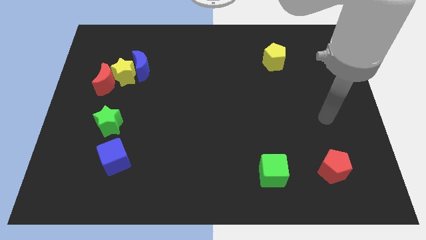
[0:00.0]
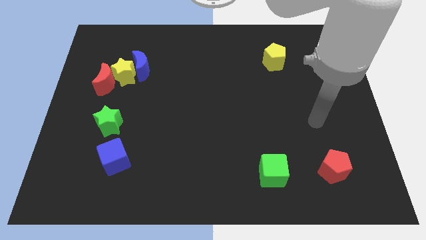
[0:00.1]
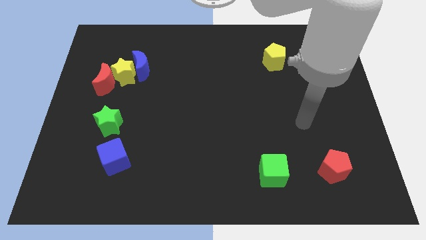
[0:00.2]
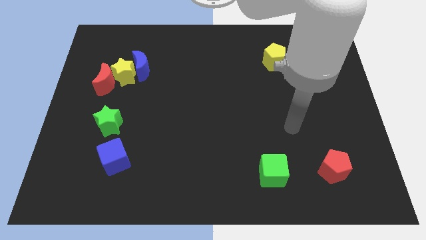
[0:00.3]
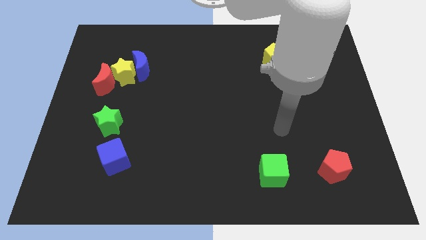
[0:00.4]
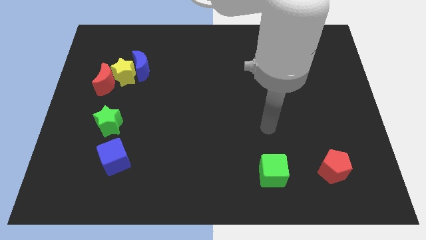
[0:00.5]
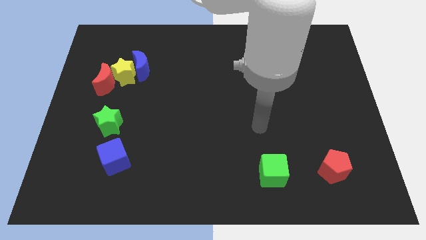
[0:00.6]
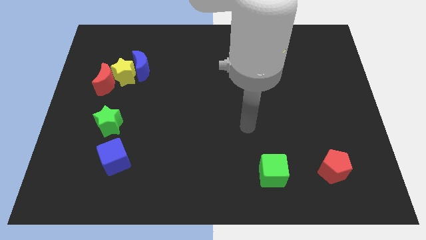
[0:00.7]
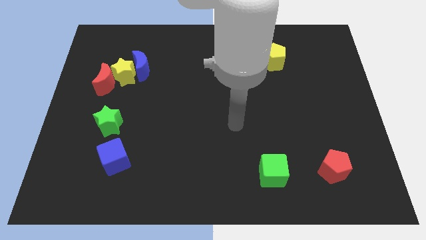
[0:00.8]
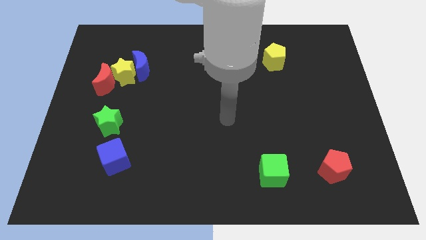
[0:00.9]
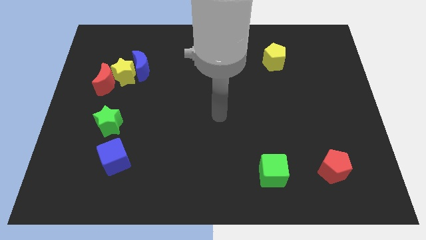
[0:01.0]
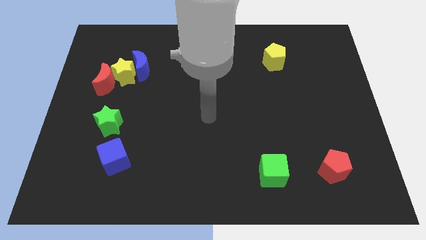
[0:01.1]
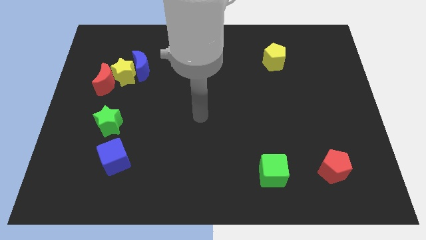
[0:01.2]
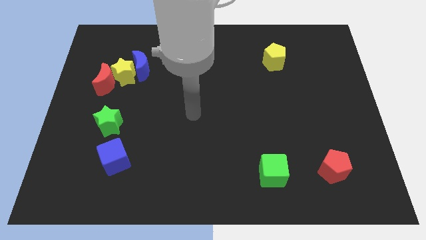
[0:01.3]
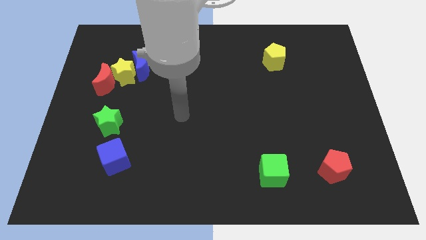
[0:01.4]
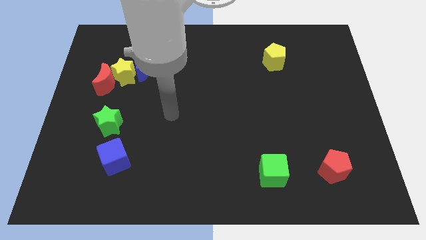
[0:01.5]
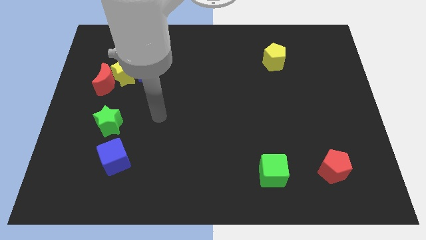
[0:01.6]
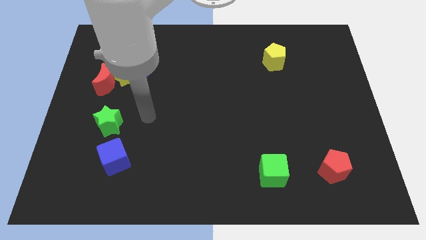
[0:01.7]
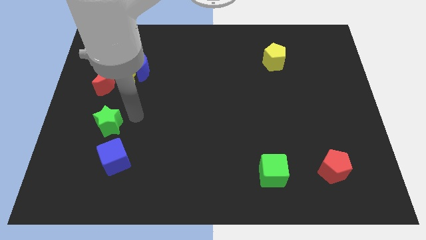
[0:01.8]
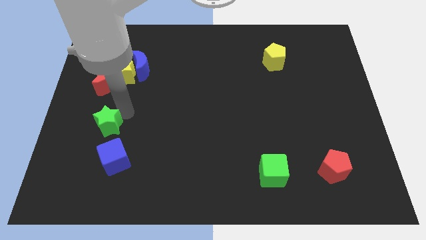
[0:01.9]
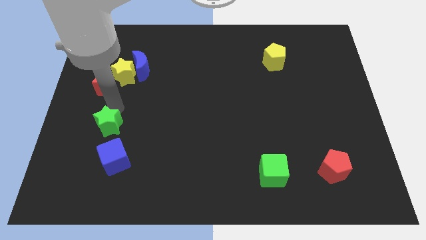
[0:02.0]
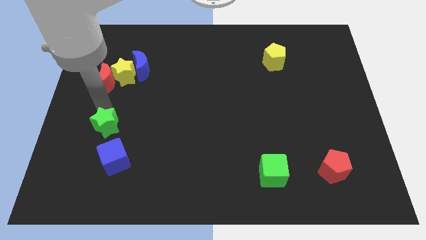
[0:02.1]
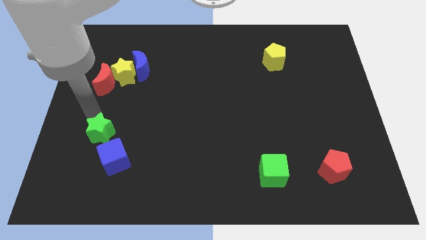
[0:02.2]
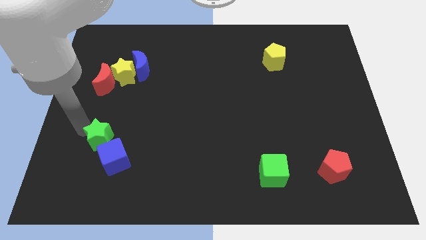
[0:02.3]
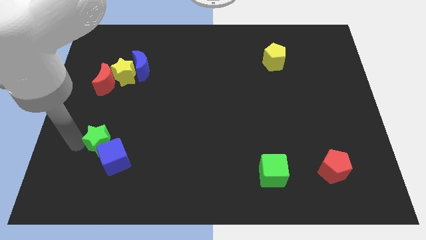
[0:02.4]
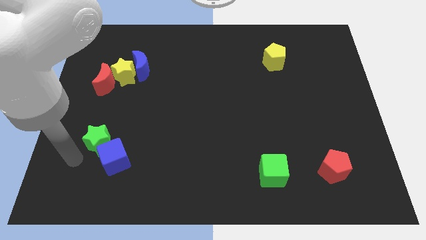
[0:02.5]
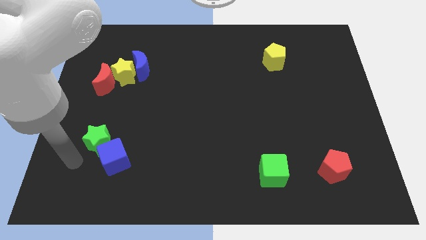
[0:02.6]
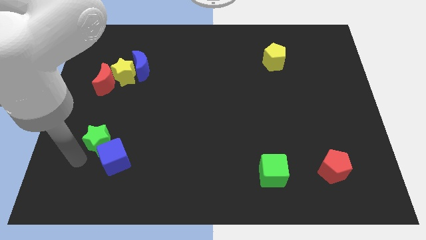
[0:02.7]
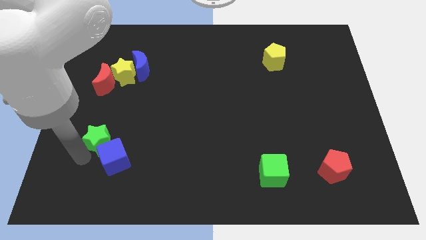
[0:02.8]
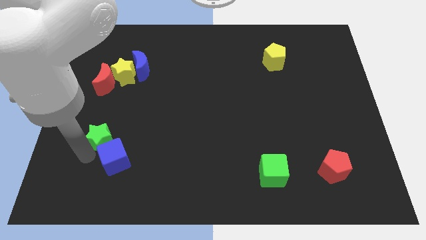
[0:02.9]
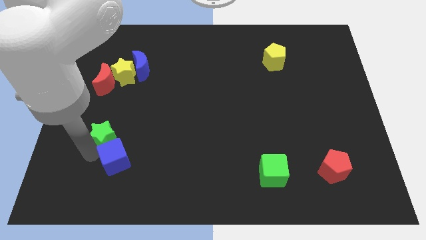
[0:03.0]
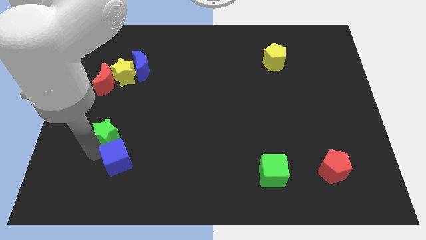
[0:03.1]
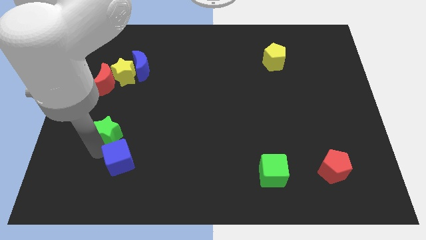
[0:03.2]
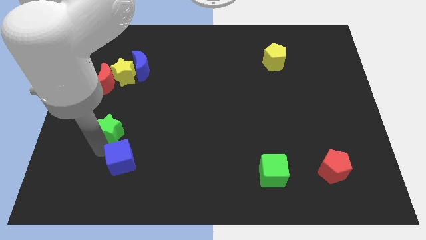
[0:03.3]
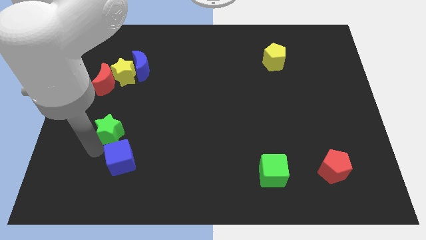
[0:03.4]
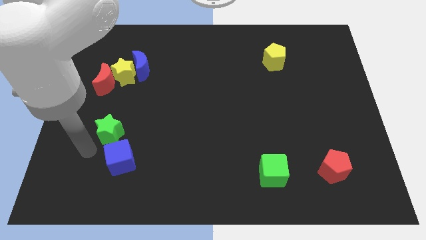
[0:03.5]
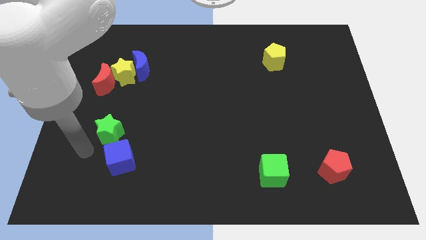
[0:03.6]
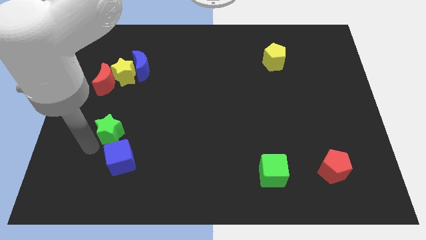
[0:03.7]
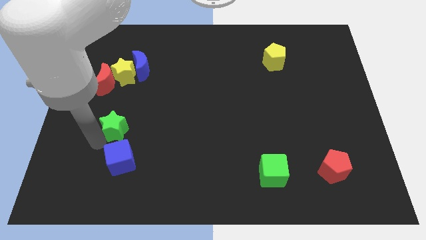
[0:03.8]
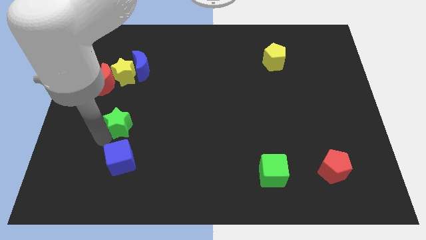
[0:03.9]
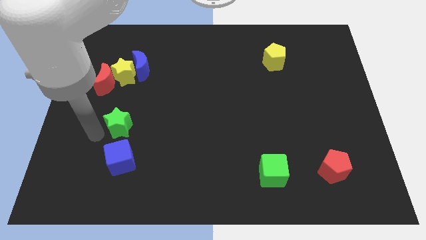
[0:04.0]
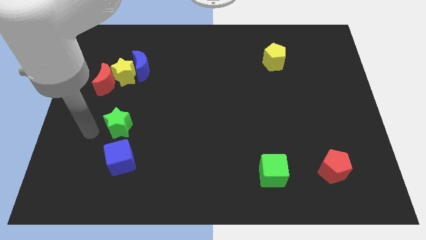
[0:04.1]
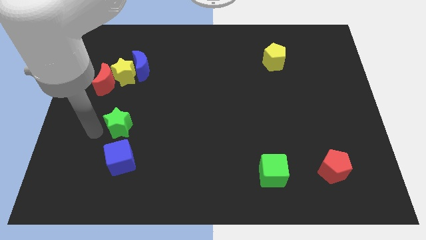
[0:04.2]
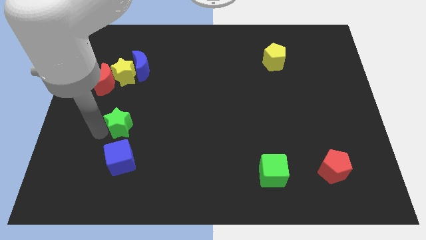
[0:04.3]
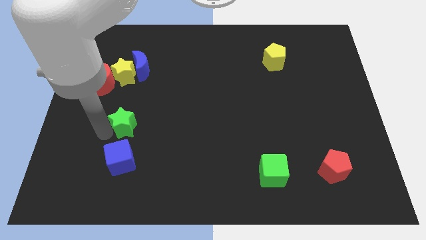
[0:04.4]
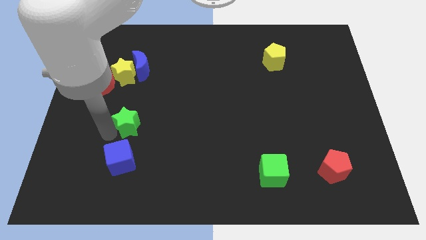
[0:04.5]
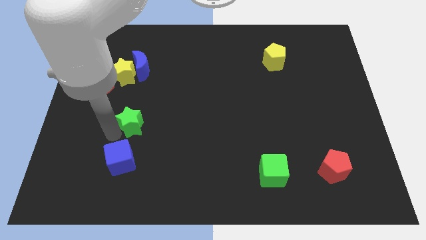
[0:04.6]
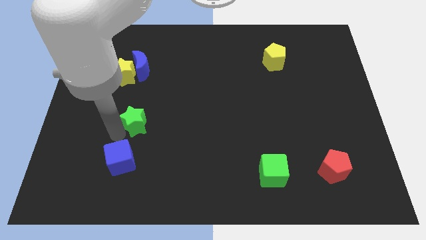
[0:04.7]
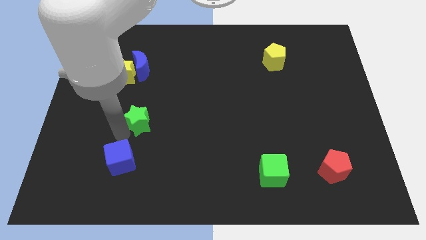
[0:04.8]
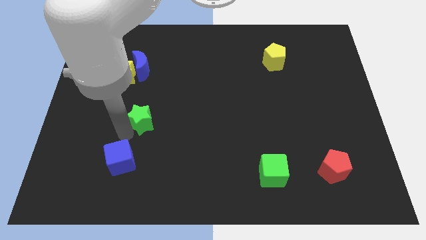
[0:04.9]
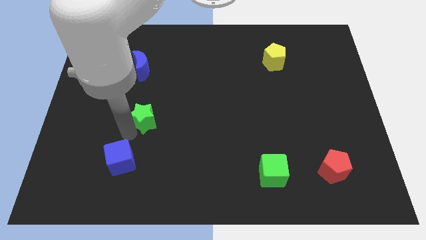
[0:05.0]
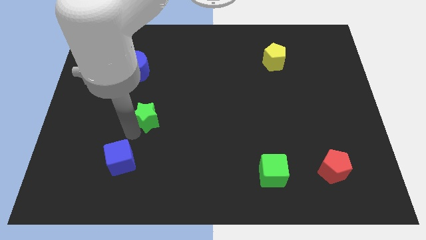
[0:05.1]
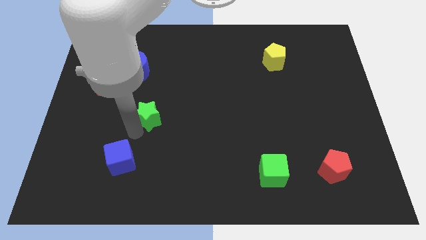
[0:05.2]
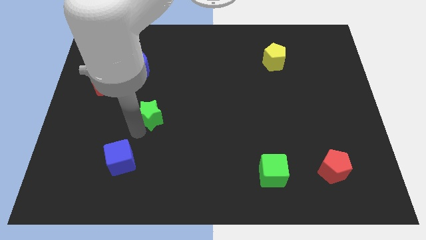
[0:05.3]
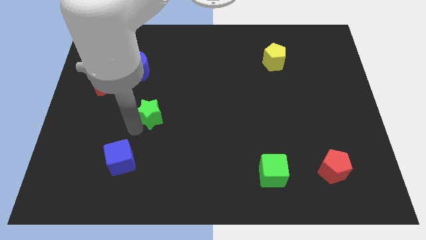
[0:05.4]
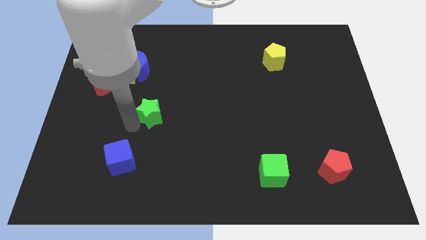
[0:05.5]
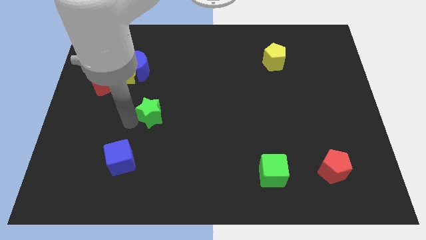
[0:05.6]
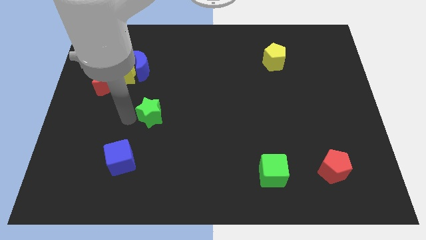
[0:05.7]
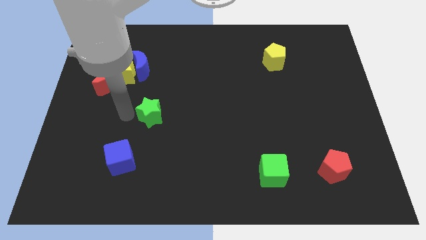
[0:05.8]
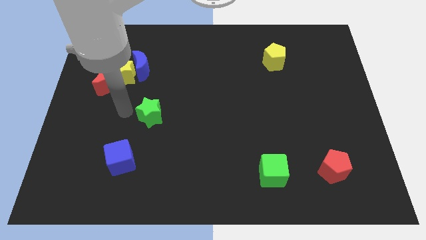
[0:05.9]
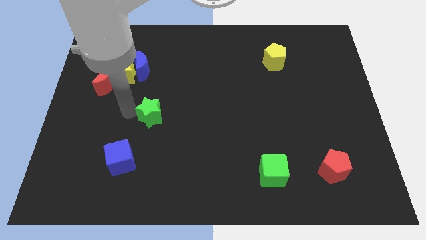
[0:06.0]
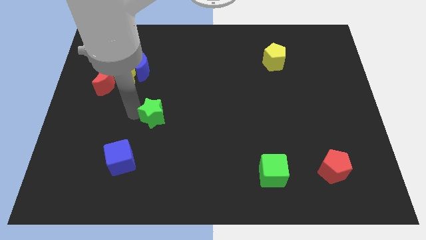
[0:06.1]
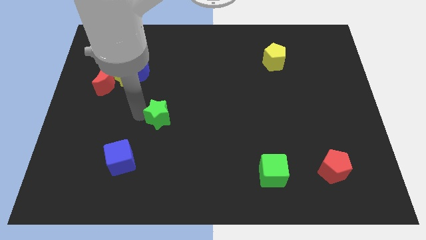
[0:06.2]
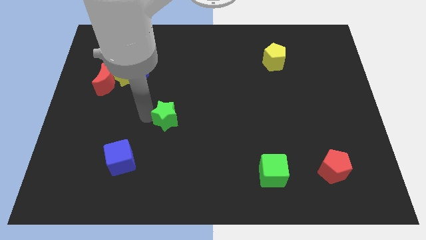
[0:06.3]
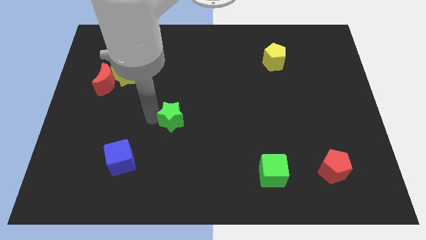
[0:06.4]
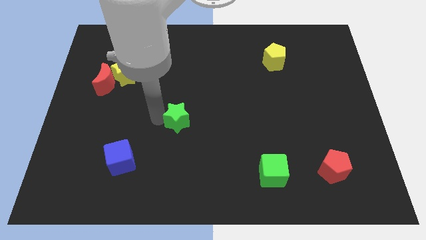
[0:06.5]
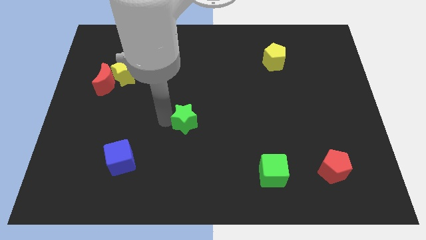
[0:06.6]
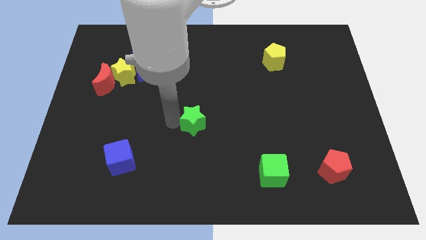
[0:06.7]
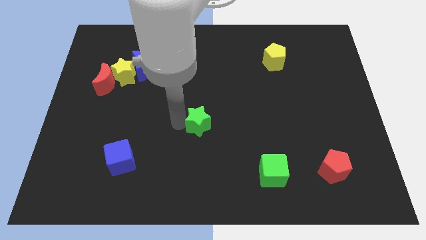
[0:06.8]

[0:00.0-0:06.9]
push the green star to the right

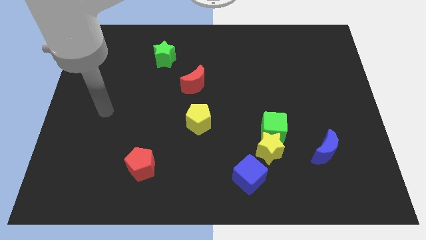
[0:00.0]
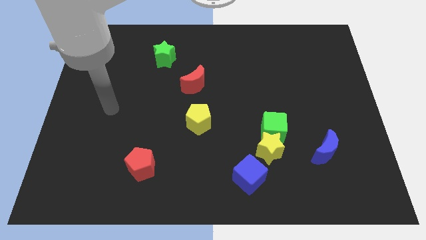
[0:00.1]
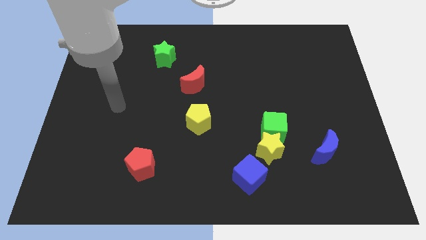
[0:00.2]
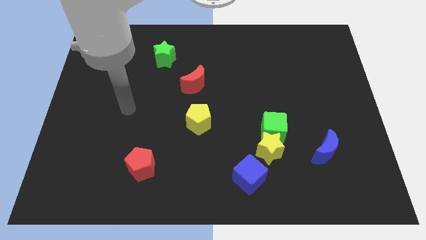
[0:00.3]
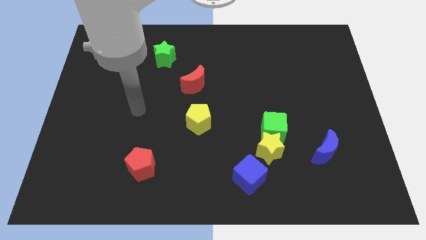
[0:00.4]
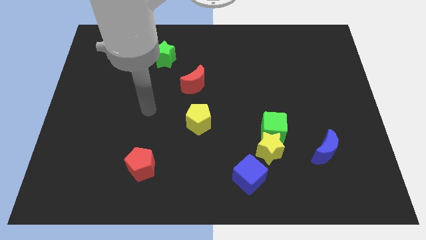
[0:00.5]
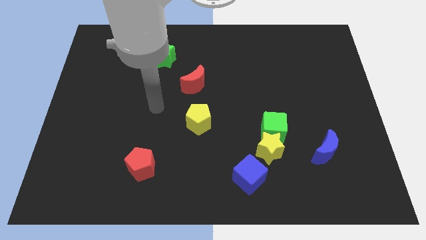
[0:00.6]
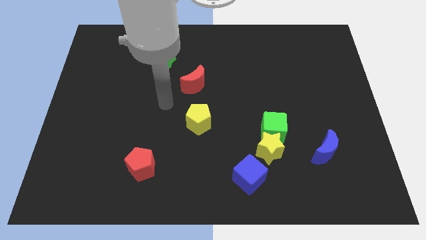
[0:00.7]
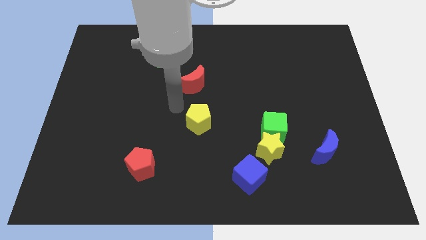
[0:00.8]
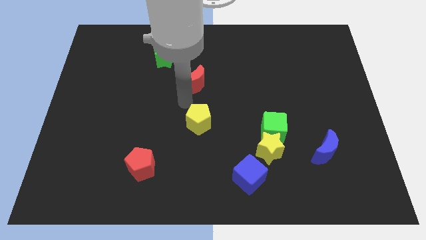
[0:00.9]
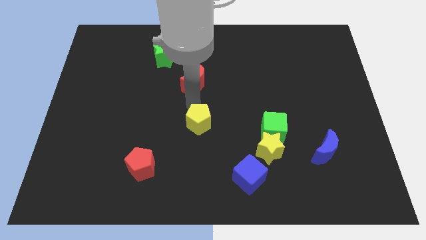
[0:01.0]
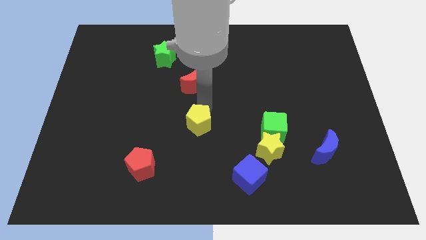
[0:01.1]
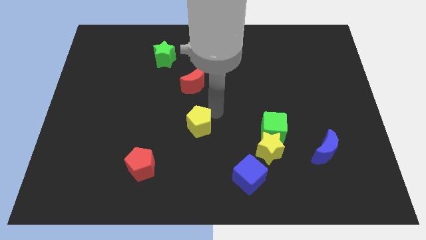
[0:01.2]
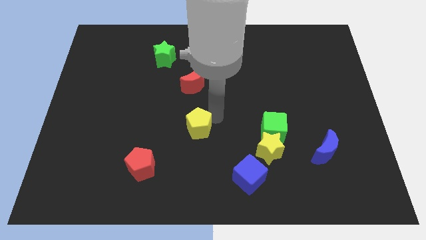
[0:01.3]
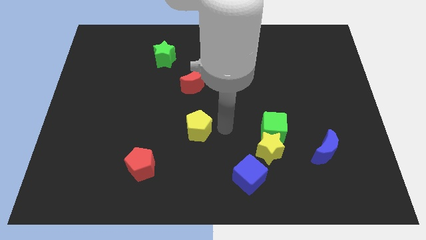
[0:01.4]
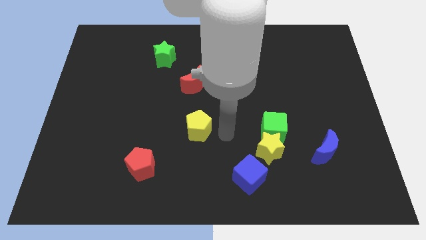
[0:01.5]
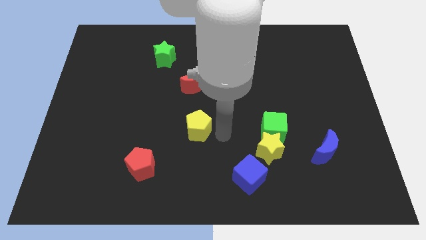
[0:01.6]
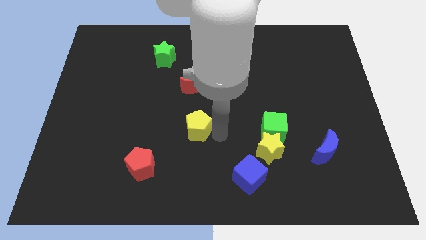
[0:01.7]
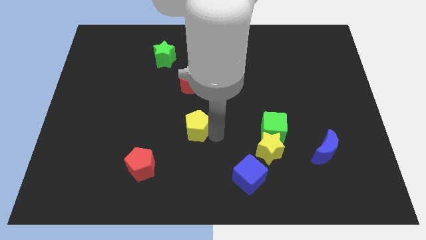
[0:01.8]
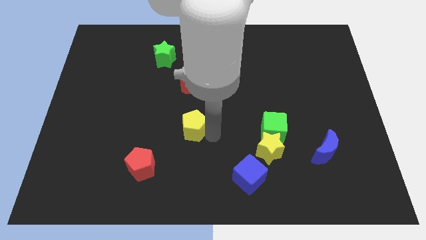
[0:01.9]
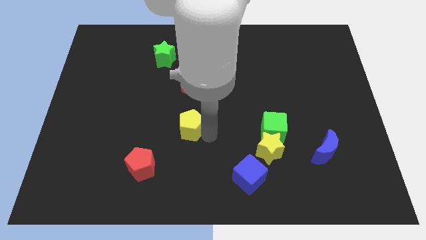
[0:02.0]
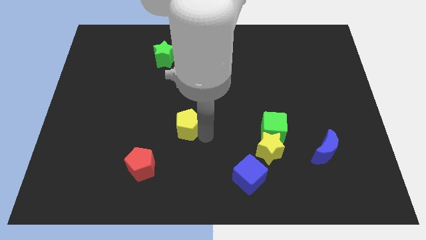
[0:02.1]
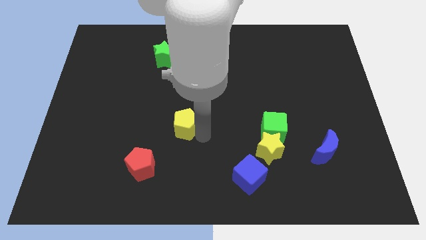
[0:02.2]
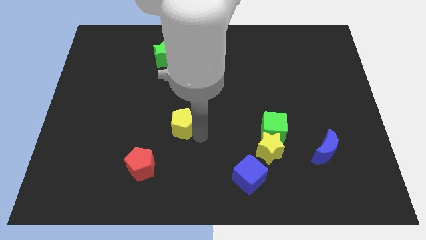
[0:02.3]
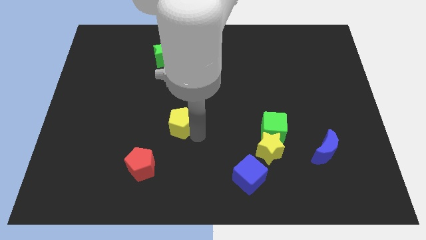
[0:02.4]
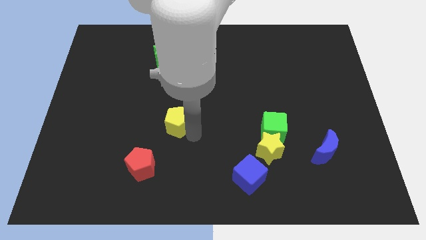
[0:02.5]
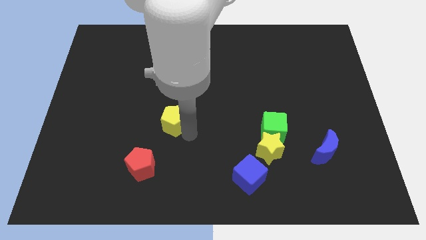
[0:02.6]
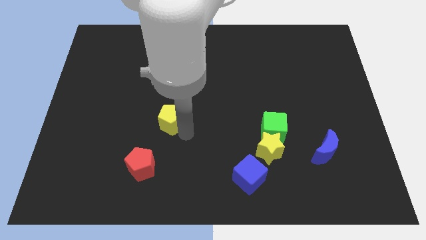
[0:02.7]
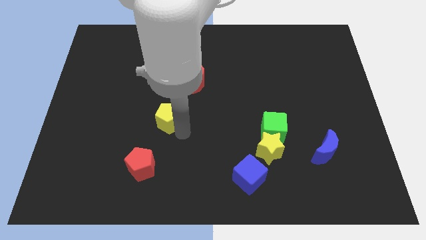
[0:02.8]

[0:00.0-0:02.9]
slide the yellow pentagon a bit left
